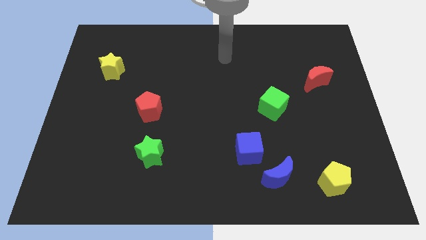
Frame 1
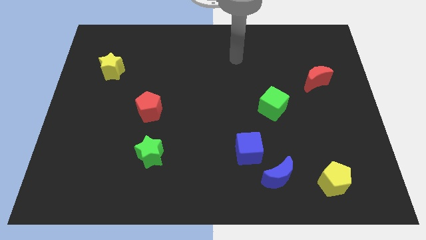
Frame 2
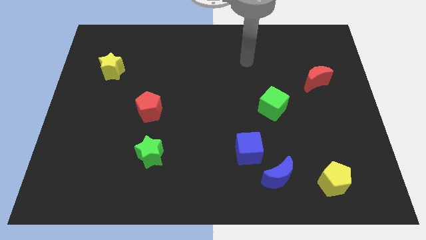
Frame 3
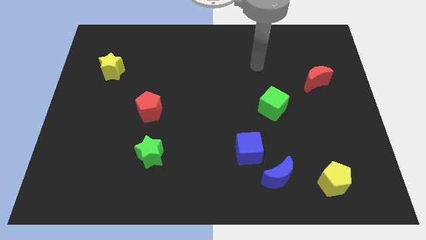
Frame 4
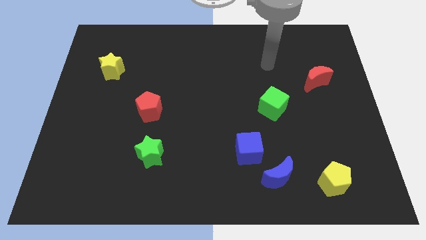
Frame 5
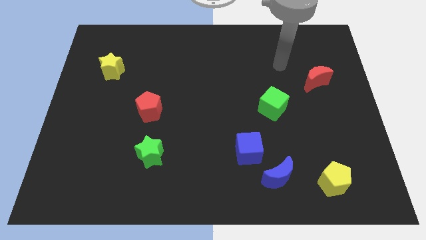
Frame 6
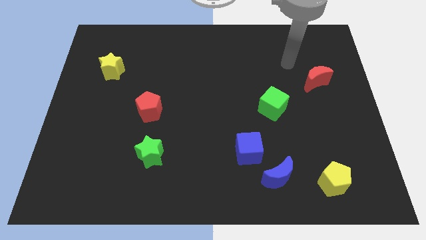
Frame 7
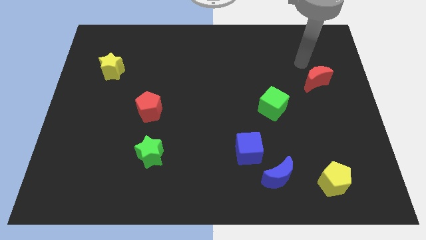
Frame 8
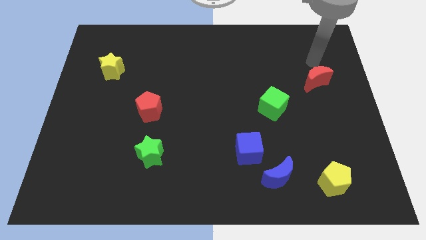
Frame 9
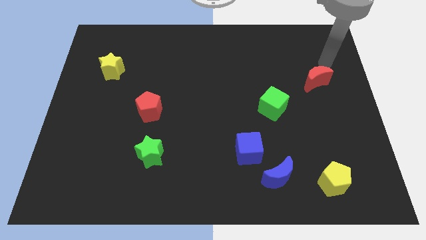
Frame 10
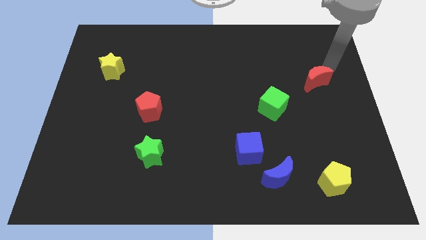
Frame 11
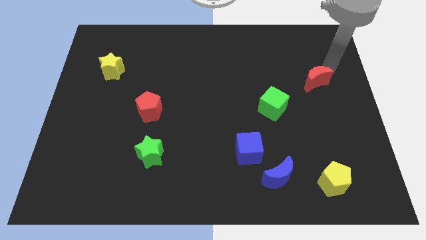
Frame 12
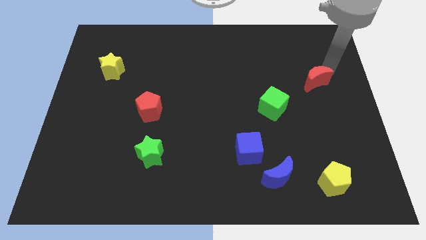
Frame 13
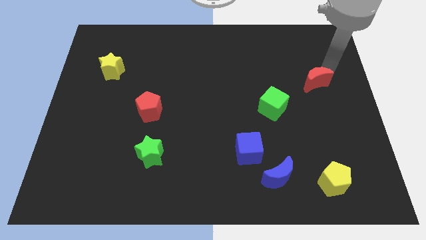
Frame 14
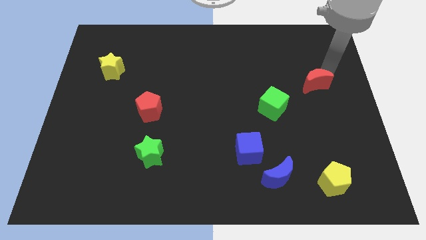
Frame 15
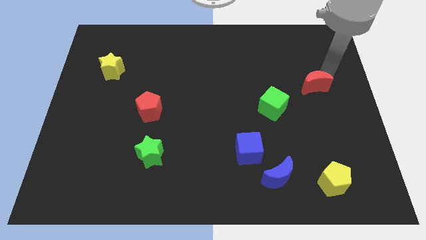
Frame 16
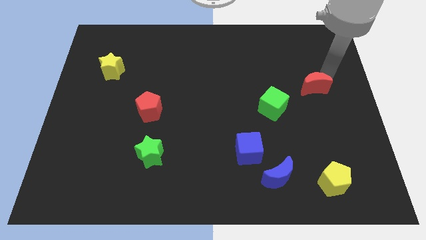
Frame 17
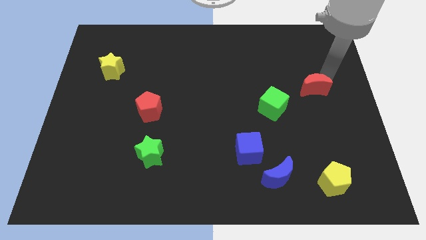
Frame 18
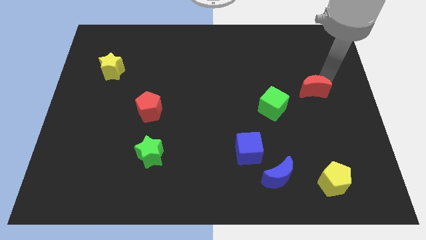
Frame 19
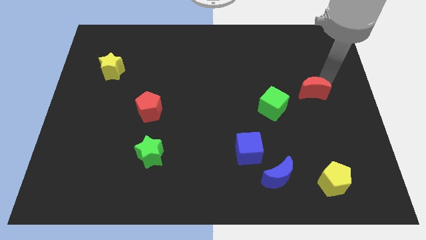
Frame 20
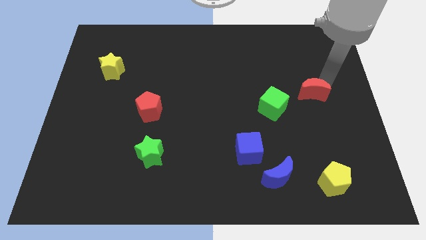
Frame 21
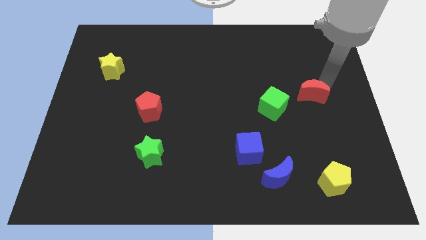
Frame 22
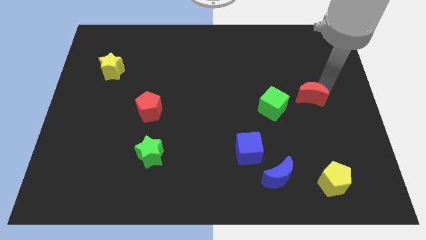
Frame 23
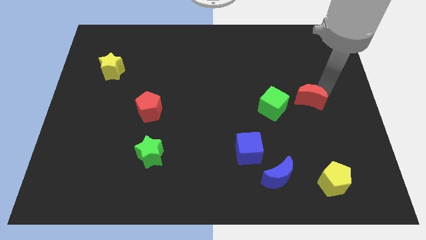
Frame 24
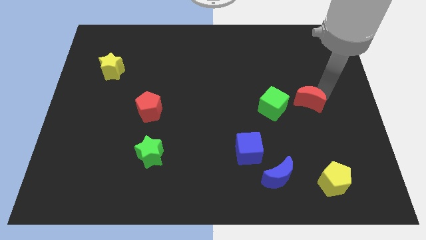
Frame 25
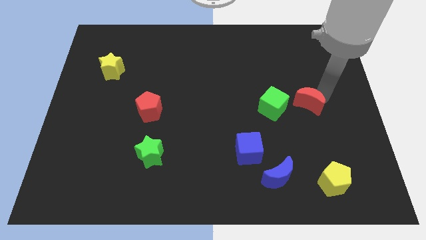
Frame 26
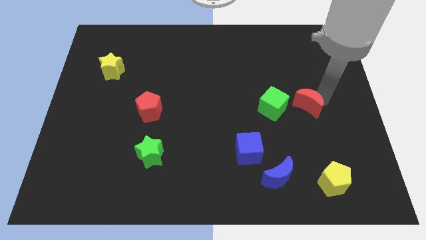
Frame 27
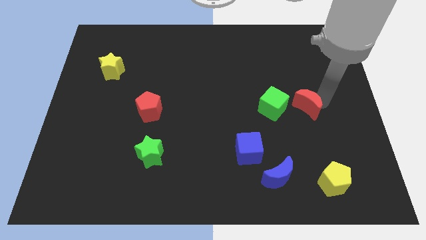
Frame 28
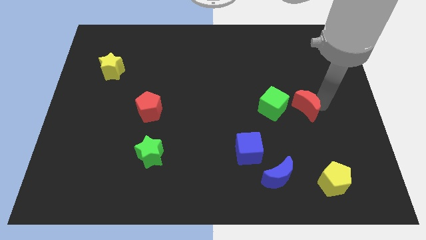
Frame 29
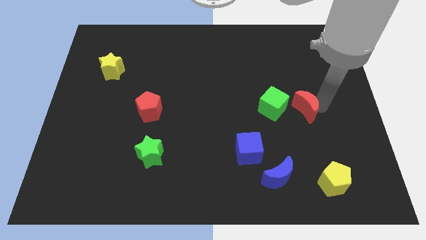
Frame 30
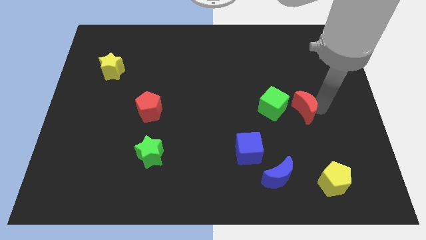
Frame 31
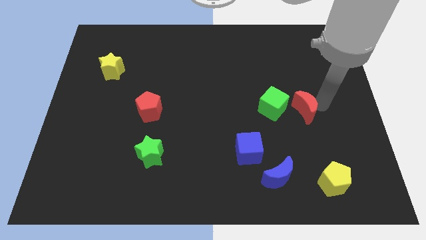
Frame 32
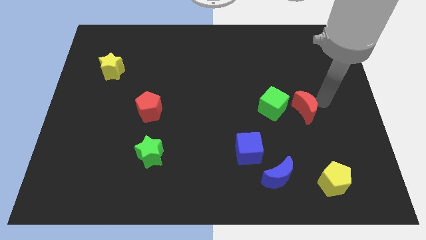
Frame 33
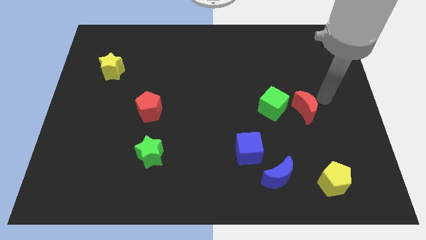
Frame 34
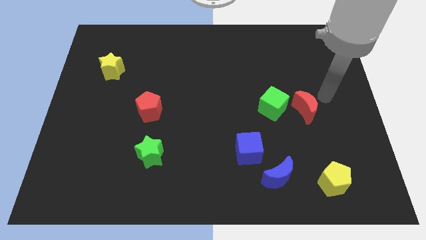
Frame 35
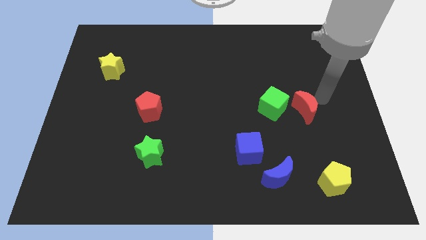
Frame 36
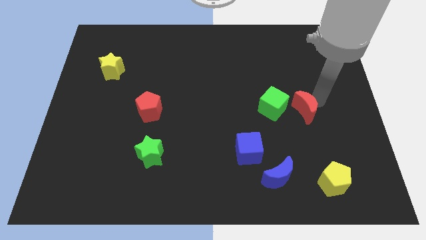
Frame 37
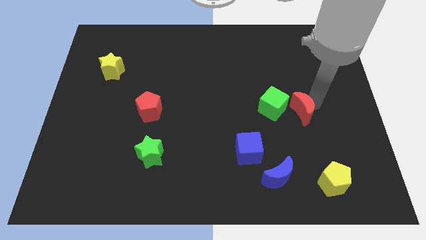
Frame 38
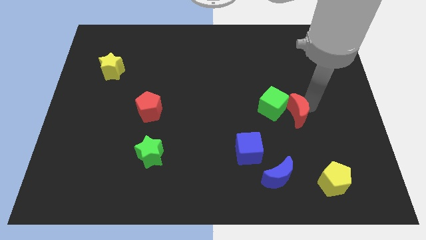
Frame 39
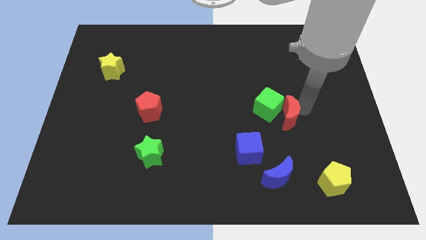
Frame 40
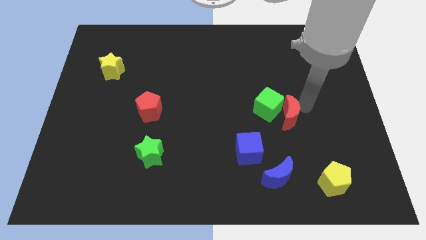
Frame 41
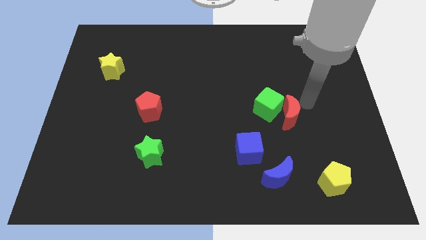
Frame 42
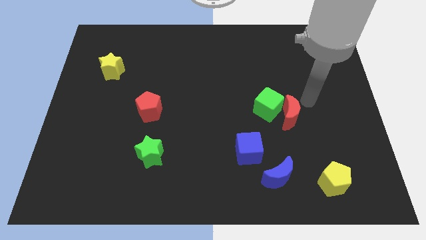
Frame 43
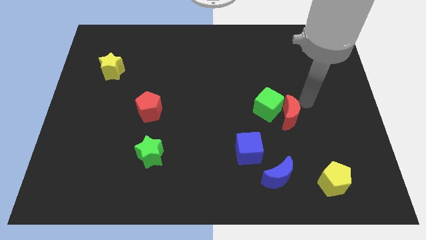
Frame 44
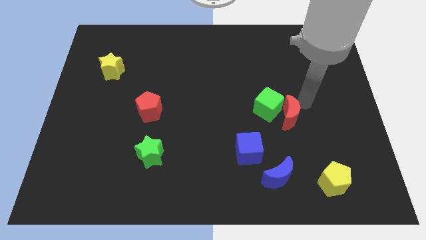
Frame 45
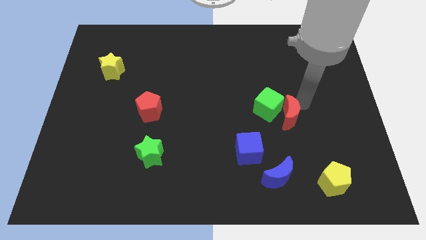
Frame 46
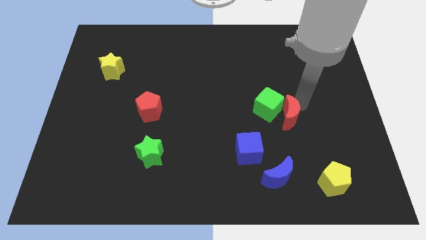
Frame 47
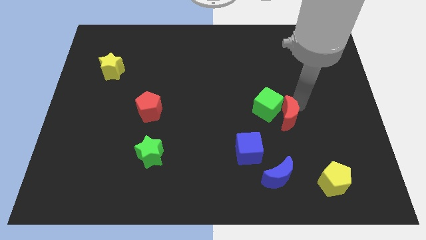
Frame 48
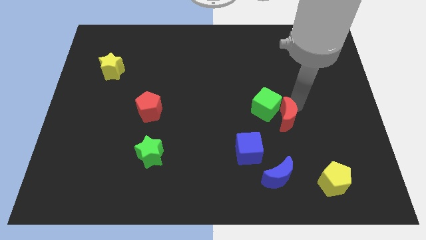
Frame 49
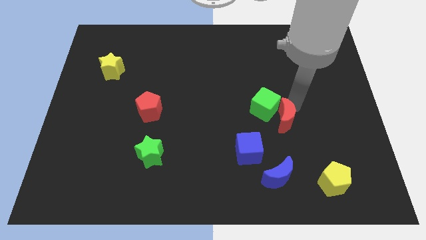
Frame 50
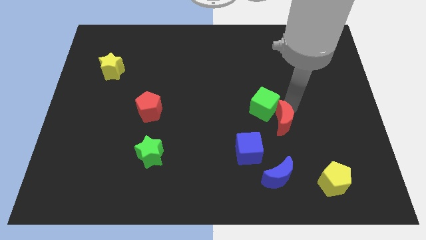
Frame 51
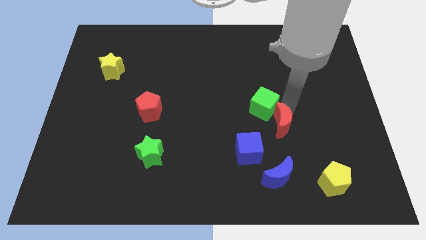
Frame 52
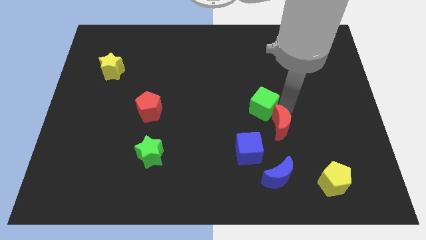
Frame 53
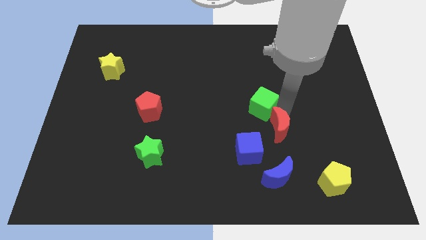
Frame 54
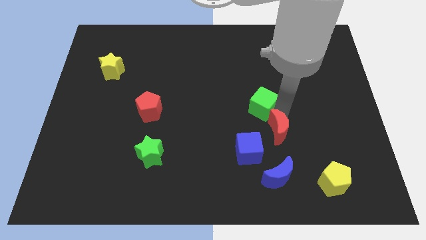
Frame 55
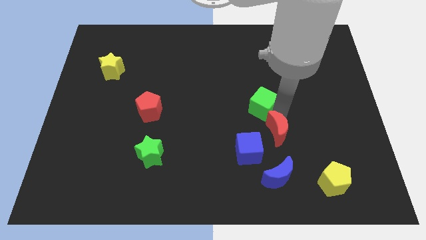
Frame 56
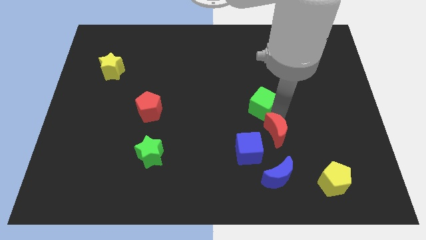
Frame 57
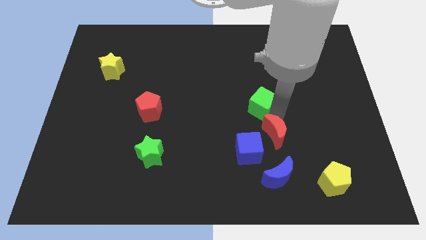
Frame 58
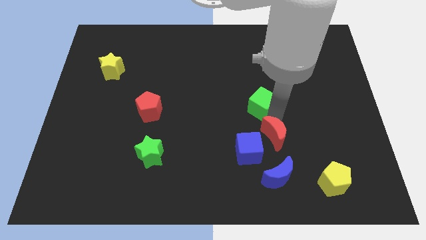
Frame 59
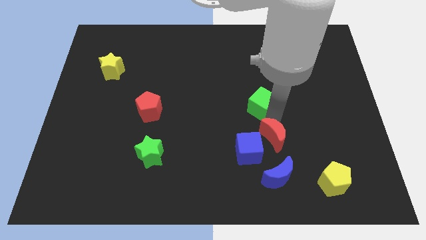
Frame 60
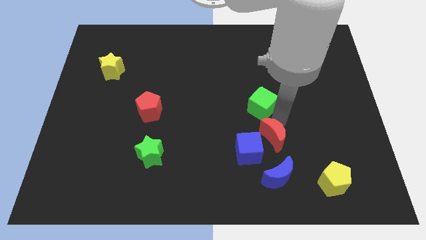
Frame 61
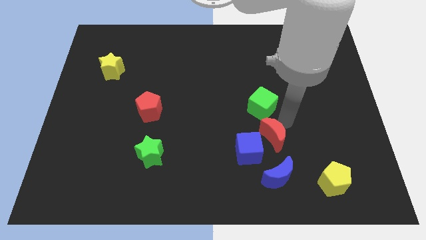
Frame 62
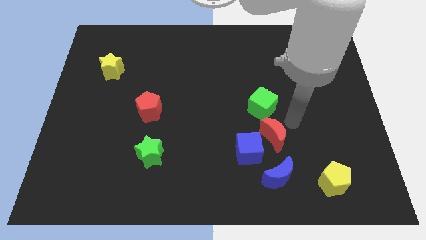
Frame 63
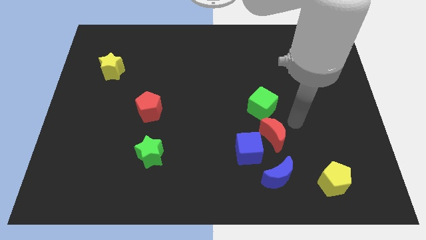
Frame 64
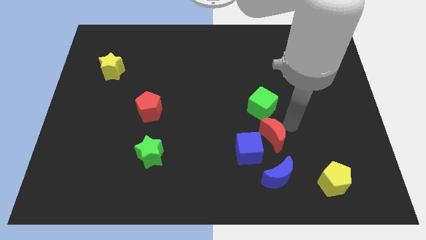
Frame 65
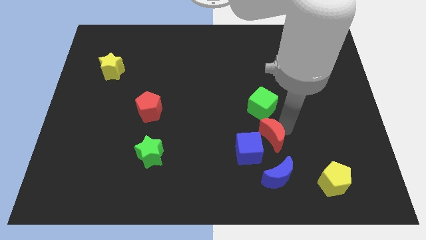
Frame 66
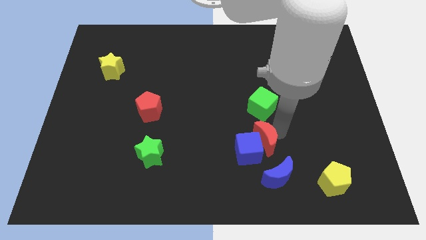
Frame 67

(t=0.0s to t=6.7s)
slide the red moon next to the blue cube

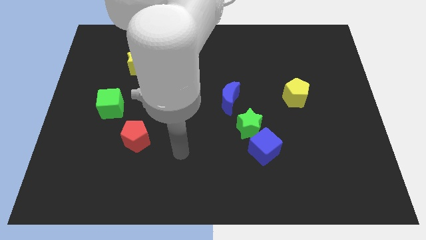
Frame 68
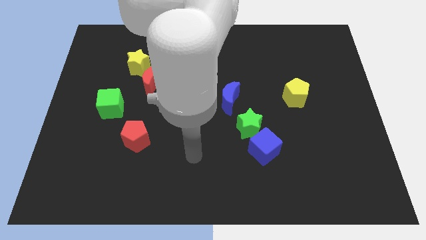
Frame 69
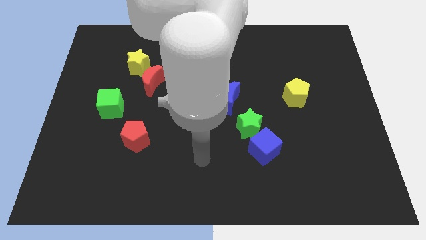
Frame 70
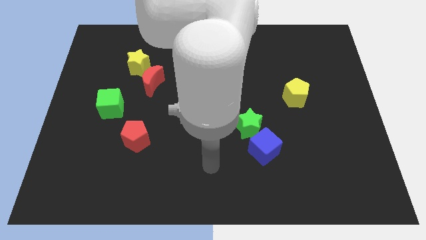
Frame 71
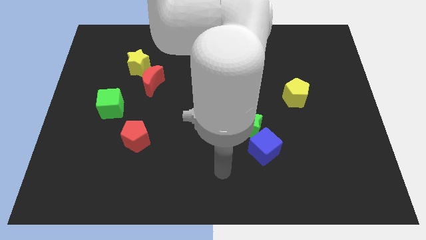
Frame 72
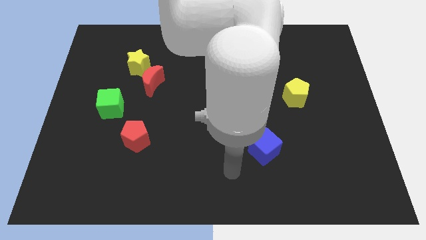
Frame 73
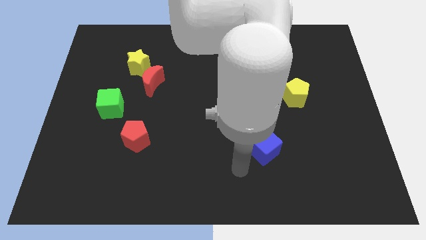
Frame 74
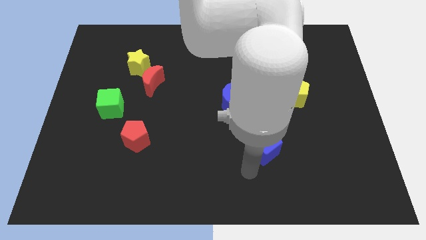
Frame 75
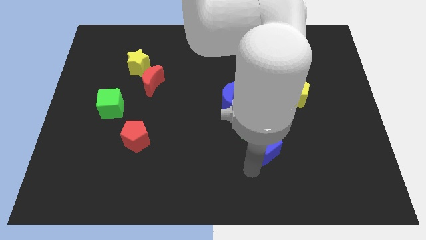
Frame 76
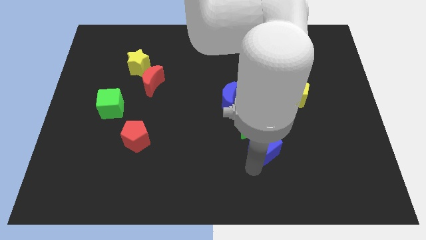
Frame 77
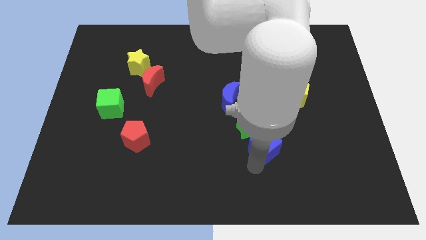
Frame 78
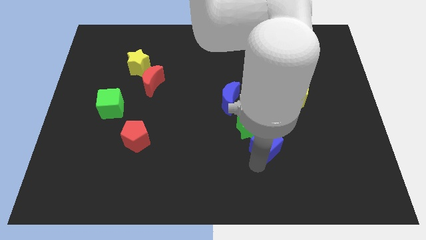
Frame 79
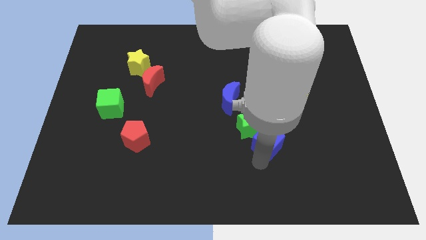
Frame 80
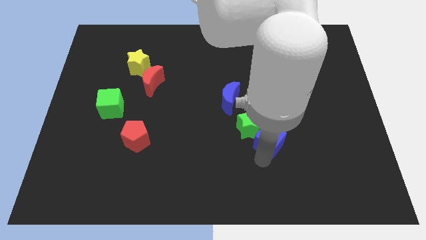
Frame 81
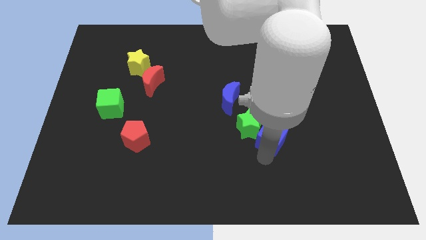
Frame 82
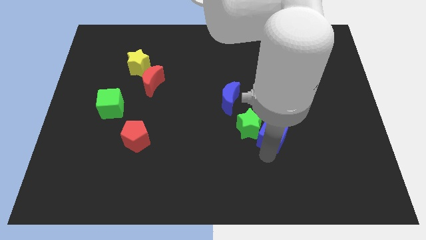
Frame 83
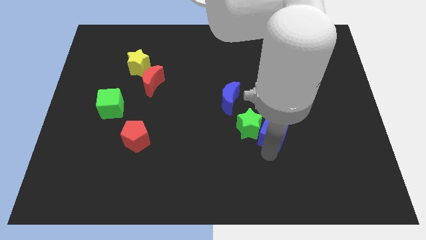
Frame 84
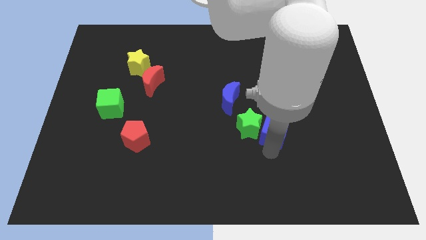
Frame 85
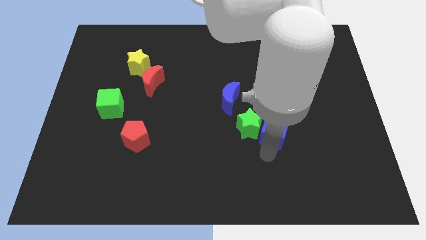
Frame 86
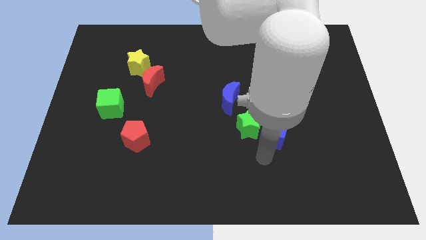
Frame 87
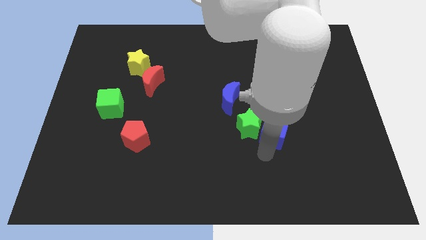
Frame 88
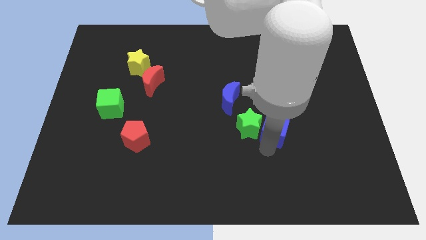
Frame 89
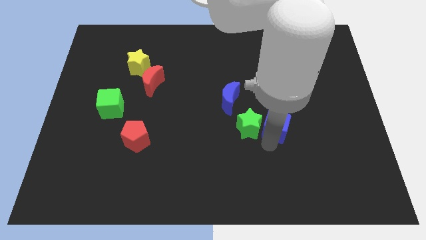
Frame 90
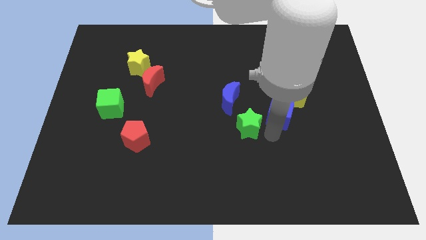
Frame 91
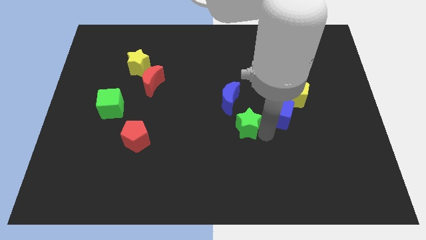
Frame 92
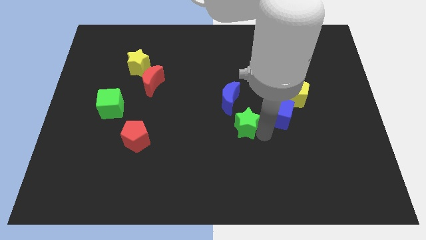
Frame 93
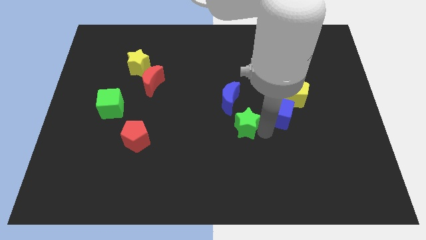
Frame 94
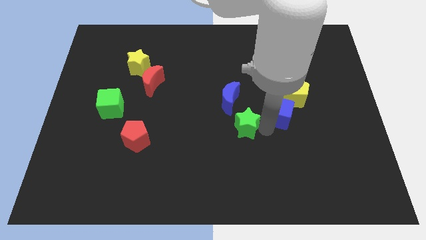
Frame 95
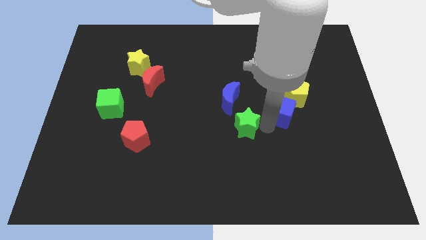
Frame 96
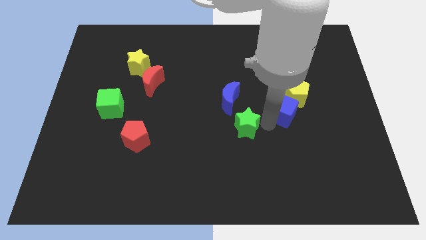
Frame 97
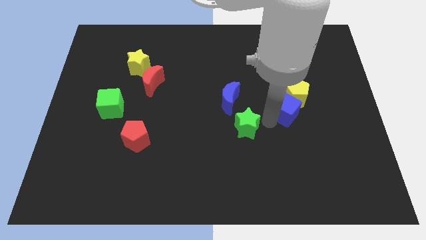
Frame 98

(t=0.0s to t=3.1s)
put the blue cube next to the yellow pentagon
